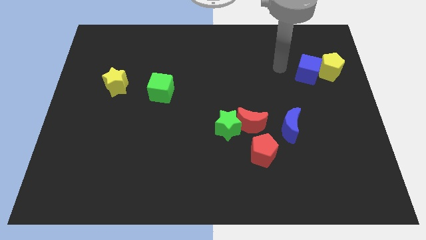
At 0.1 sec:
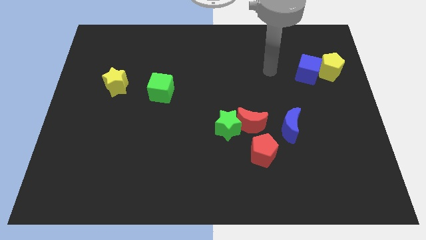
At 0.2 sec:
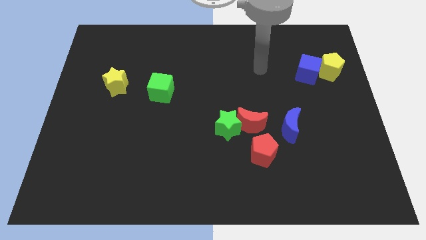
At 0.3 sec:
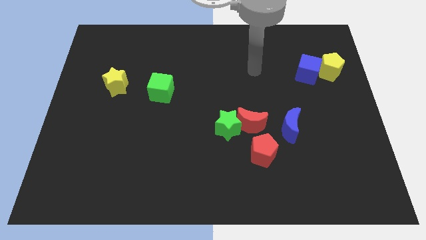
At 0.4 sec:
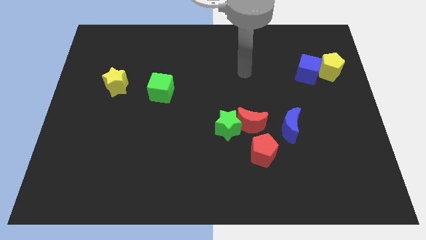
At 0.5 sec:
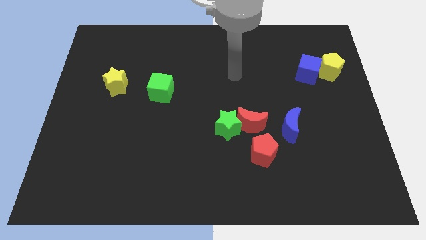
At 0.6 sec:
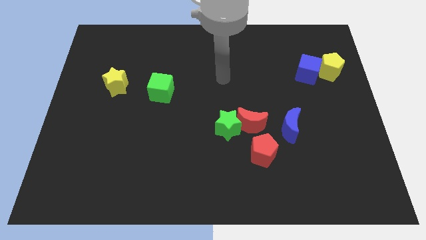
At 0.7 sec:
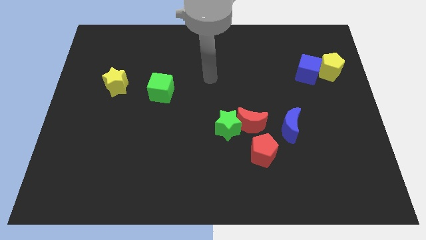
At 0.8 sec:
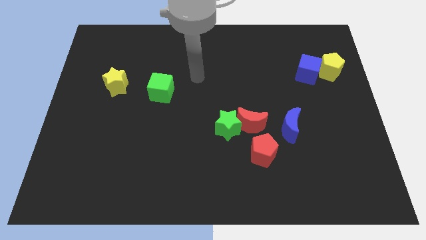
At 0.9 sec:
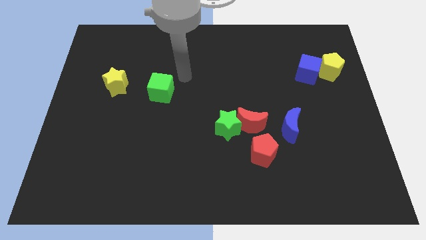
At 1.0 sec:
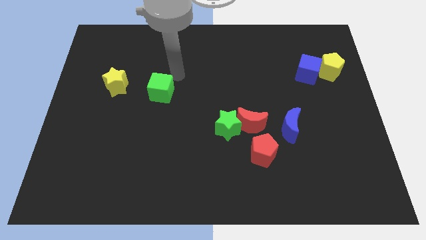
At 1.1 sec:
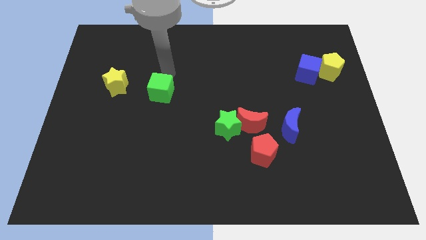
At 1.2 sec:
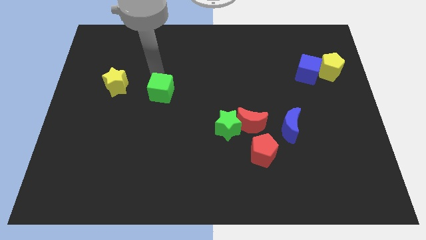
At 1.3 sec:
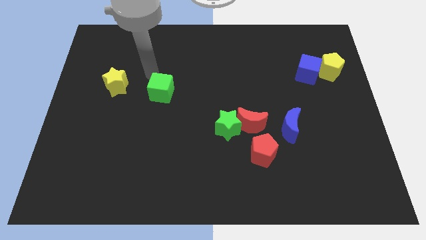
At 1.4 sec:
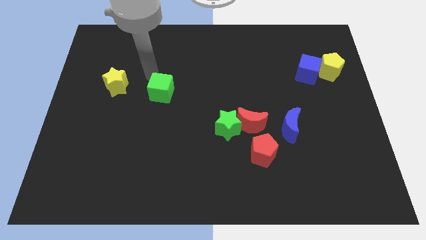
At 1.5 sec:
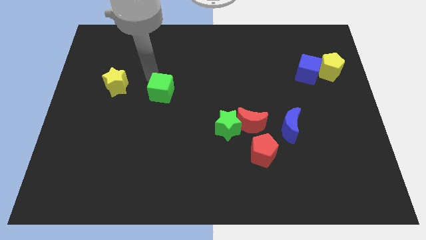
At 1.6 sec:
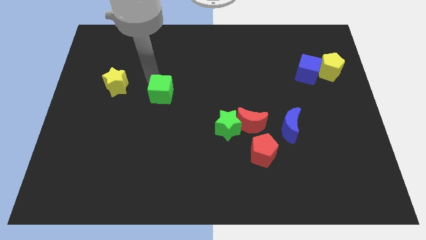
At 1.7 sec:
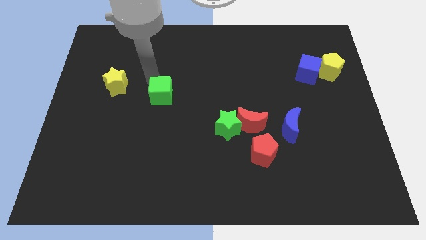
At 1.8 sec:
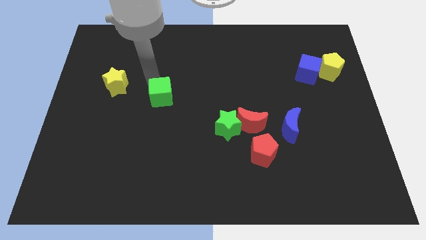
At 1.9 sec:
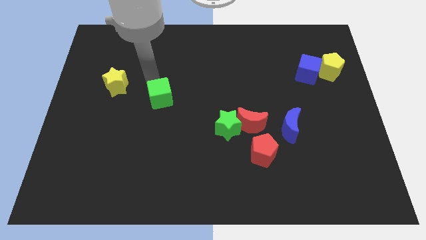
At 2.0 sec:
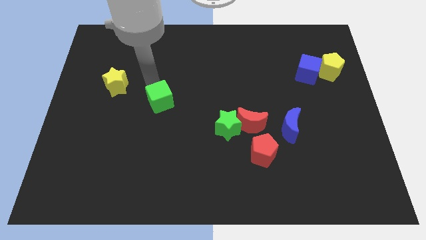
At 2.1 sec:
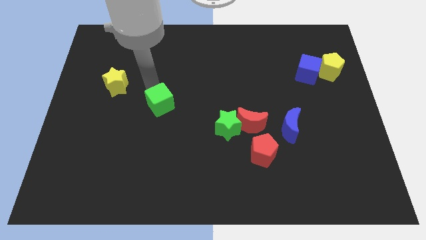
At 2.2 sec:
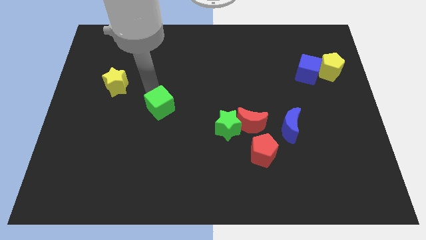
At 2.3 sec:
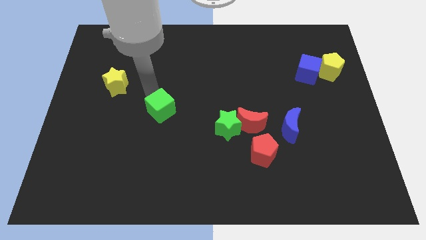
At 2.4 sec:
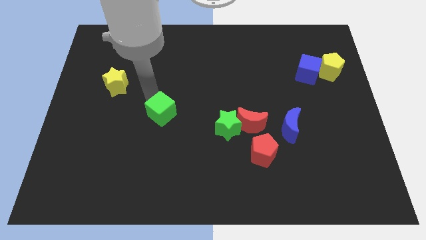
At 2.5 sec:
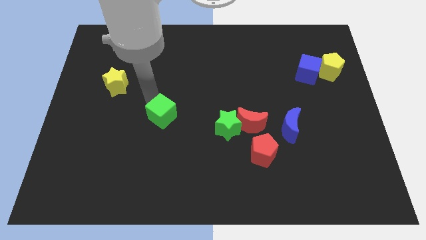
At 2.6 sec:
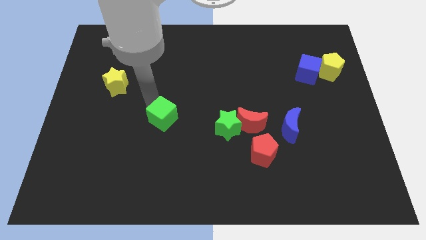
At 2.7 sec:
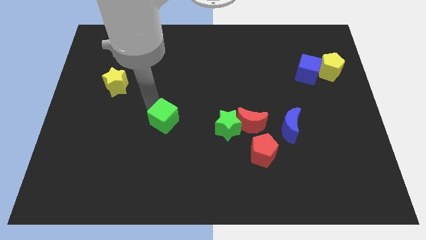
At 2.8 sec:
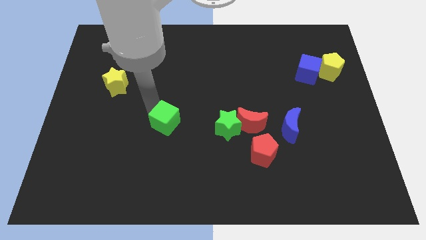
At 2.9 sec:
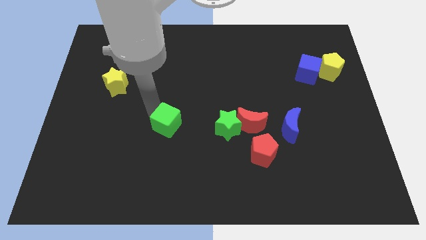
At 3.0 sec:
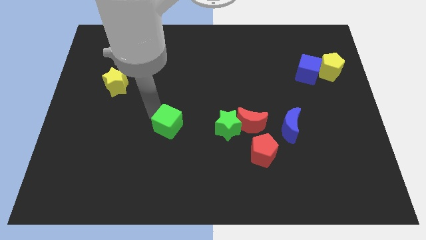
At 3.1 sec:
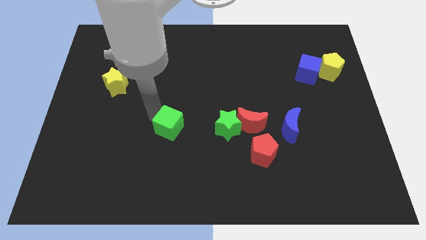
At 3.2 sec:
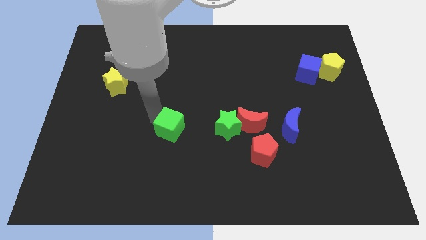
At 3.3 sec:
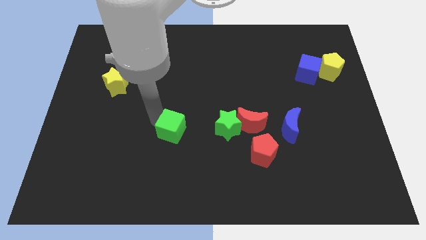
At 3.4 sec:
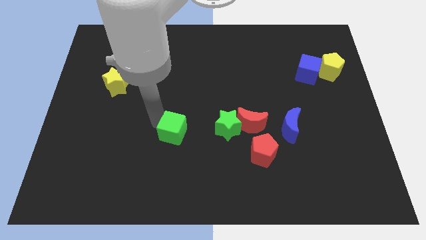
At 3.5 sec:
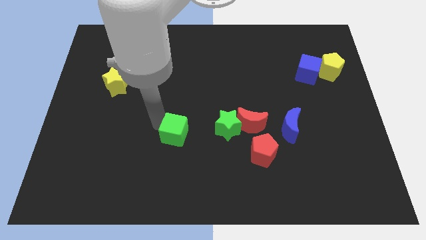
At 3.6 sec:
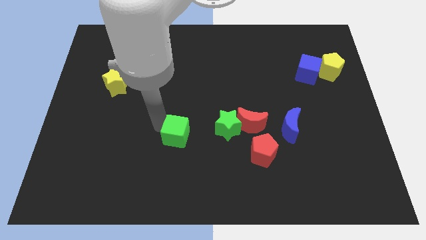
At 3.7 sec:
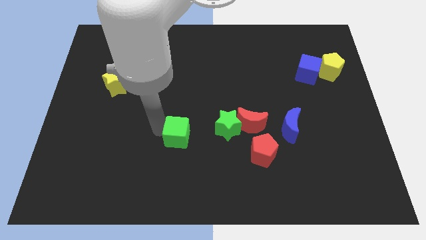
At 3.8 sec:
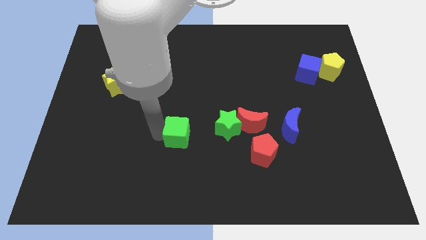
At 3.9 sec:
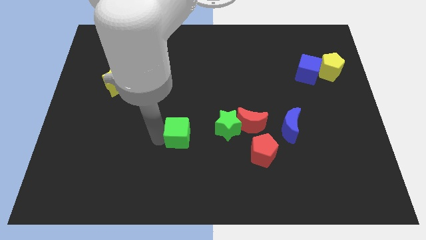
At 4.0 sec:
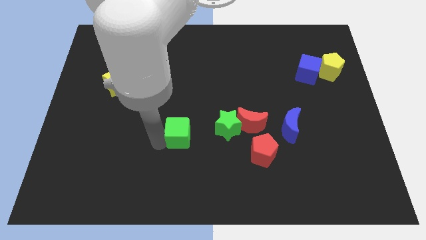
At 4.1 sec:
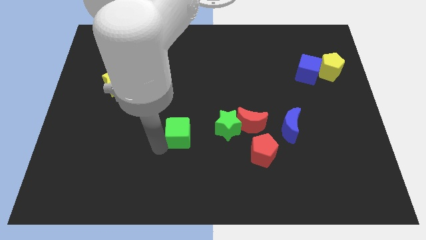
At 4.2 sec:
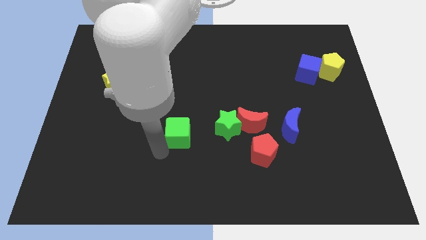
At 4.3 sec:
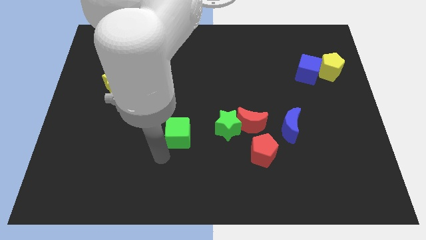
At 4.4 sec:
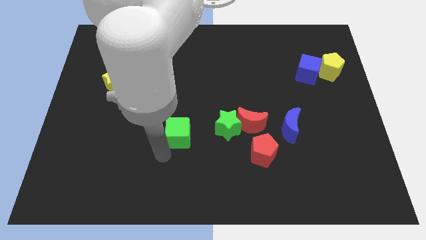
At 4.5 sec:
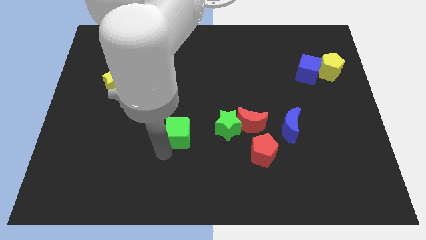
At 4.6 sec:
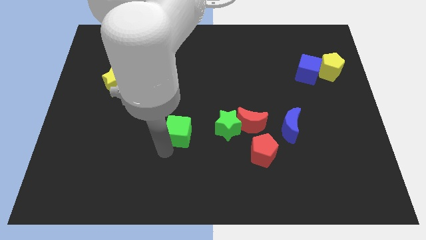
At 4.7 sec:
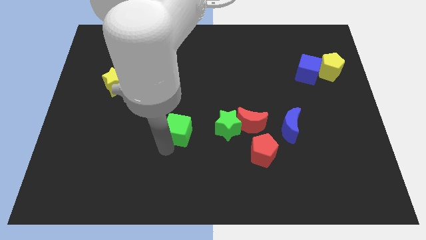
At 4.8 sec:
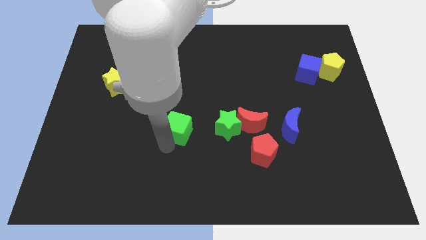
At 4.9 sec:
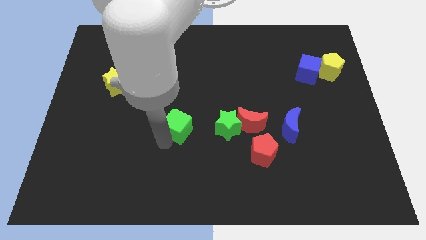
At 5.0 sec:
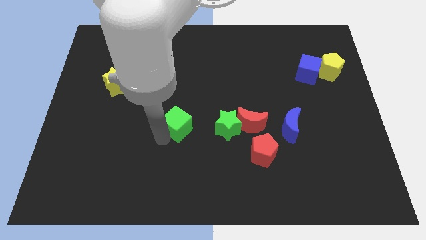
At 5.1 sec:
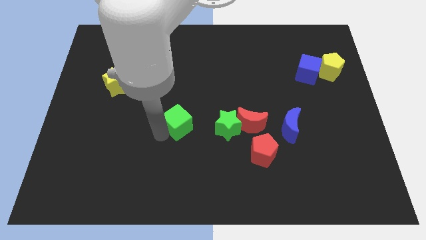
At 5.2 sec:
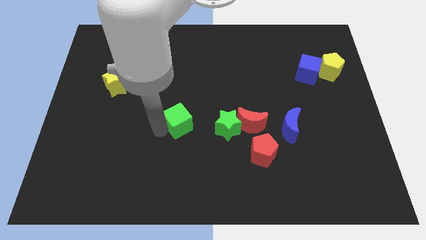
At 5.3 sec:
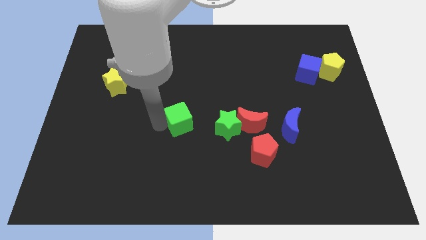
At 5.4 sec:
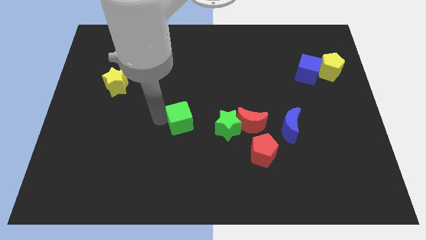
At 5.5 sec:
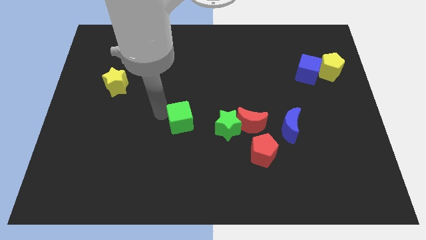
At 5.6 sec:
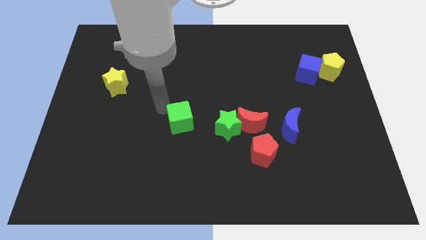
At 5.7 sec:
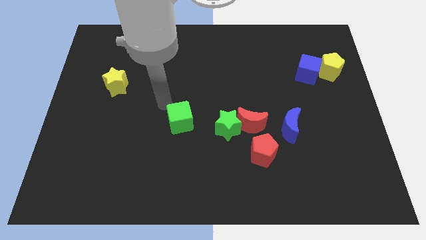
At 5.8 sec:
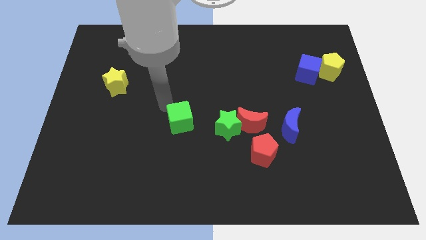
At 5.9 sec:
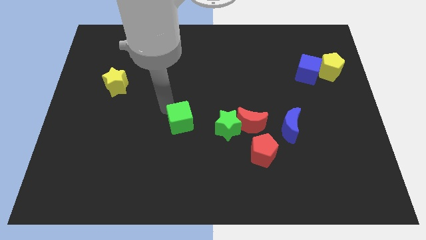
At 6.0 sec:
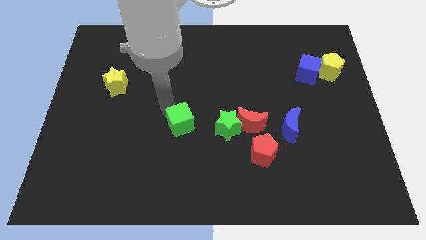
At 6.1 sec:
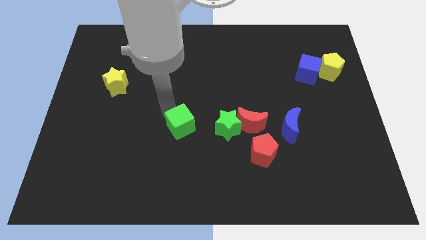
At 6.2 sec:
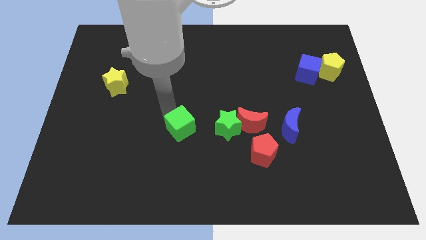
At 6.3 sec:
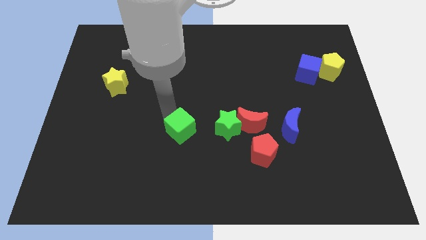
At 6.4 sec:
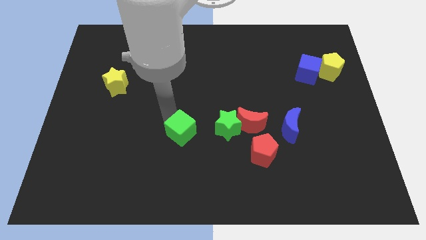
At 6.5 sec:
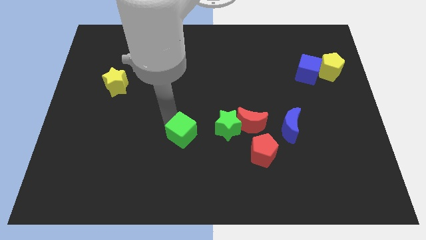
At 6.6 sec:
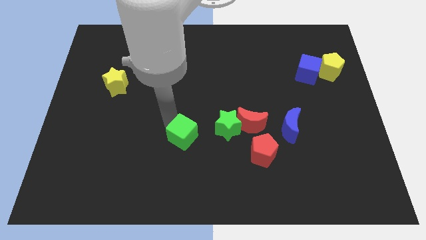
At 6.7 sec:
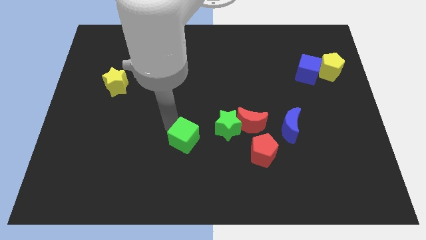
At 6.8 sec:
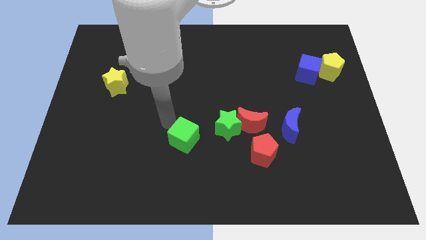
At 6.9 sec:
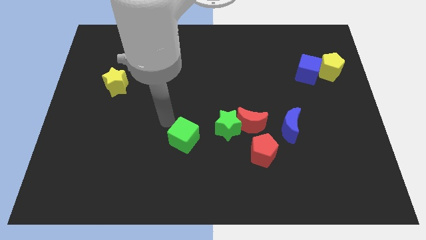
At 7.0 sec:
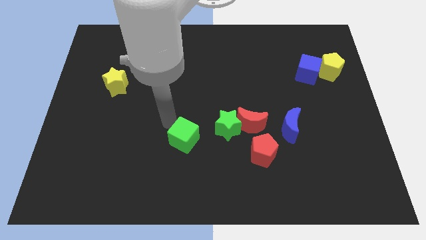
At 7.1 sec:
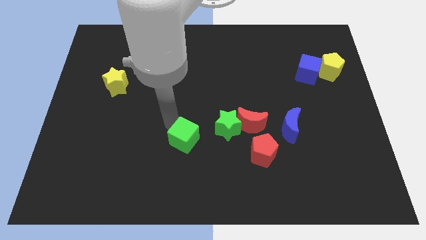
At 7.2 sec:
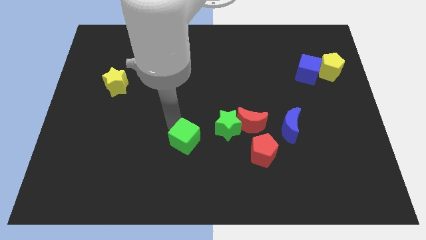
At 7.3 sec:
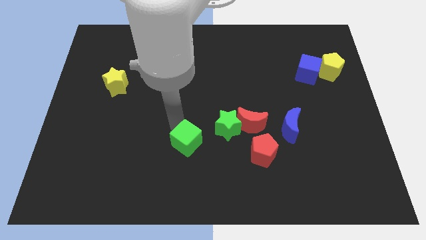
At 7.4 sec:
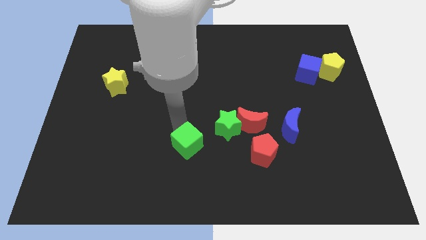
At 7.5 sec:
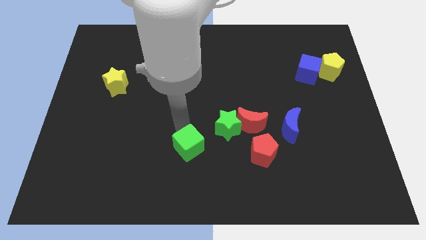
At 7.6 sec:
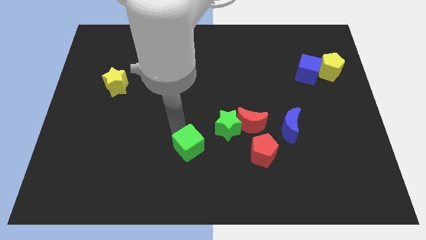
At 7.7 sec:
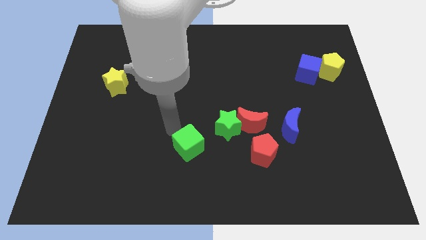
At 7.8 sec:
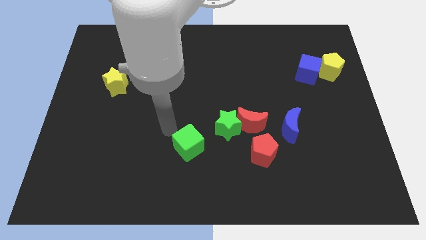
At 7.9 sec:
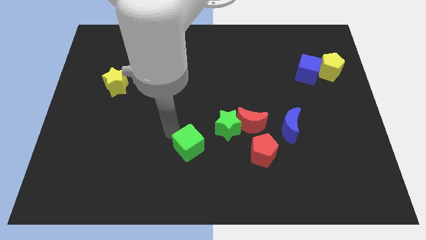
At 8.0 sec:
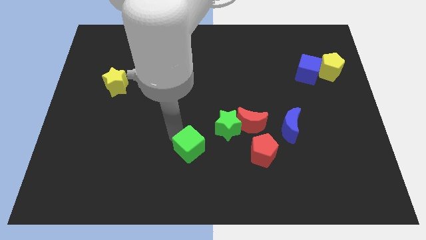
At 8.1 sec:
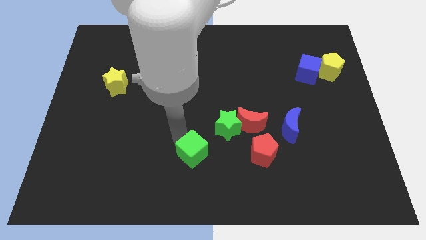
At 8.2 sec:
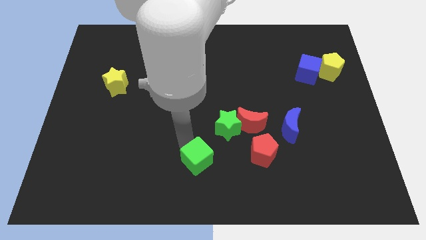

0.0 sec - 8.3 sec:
push the green cube to the bottom side
